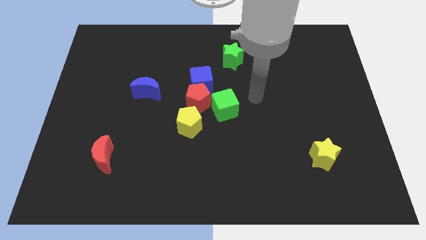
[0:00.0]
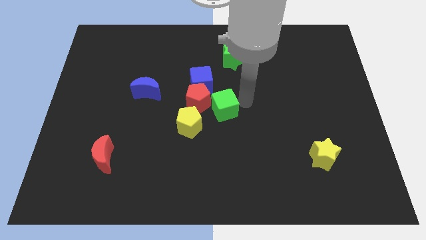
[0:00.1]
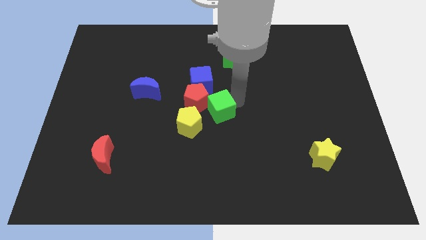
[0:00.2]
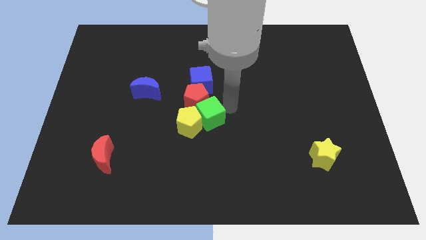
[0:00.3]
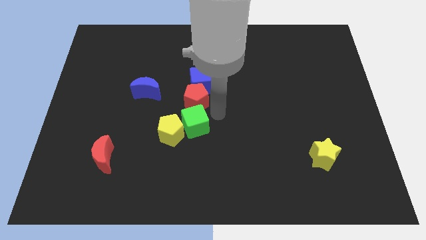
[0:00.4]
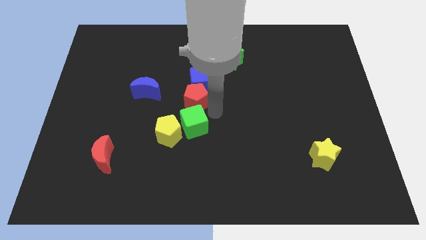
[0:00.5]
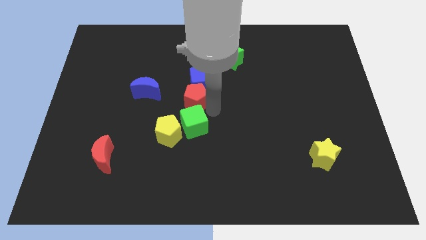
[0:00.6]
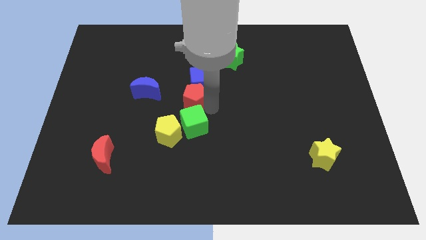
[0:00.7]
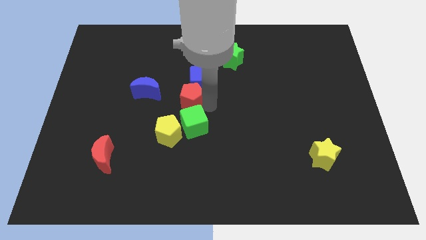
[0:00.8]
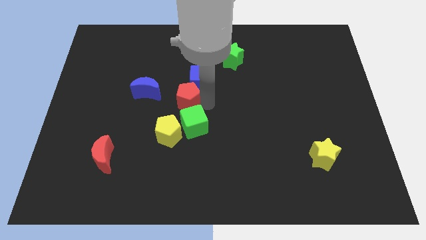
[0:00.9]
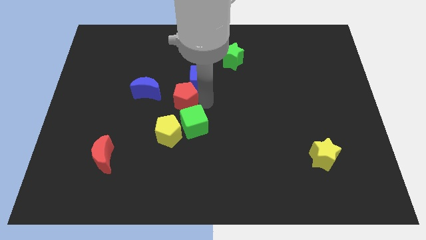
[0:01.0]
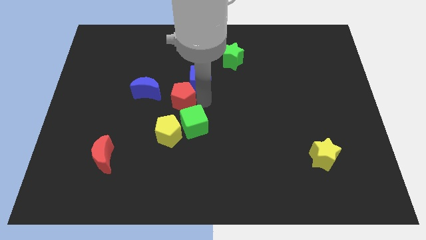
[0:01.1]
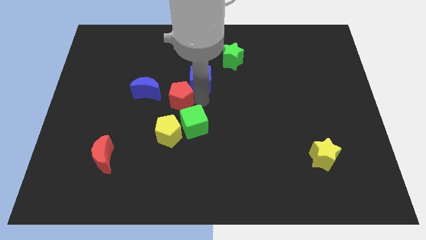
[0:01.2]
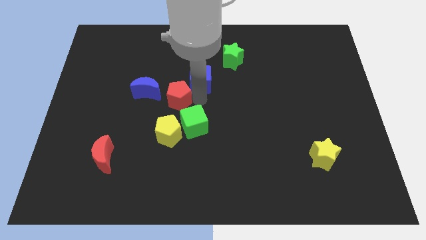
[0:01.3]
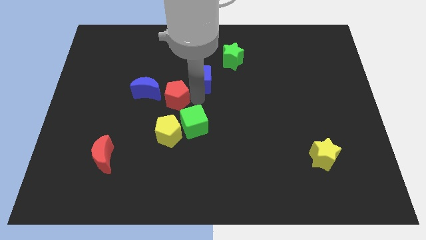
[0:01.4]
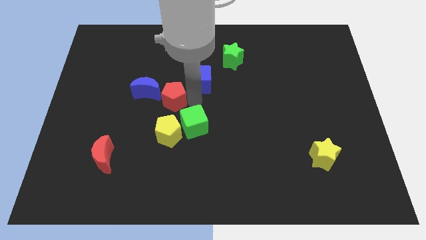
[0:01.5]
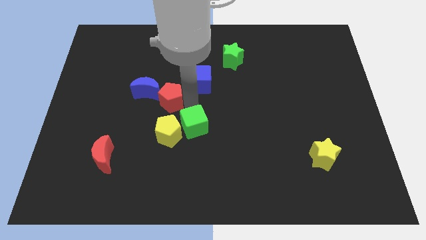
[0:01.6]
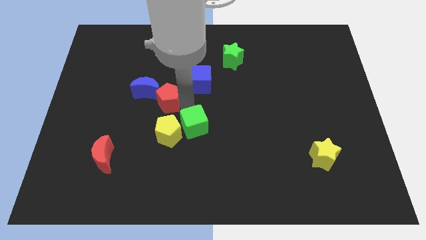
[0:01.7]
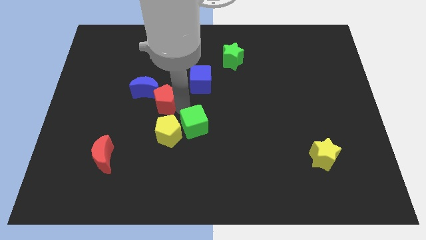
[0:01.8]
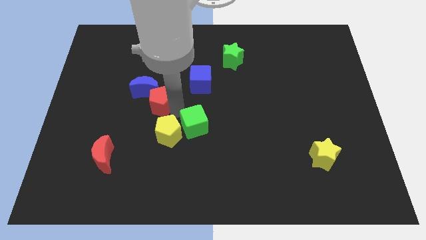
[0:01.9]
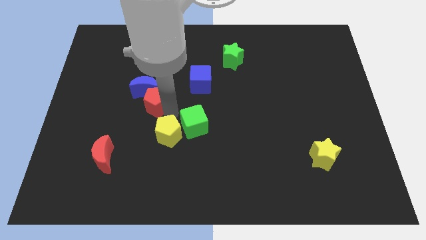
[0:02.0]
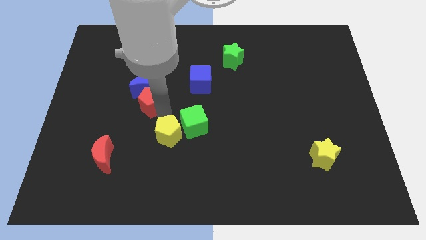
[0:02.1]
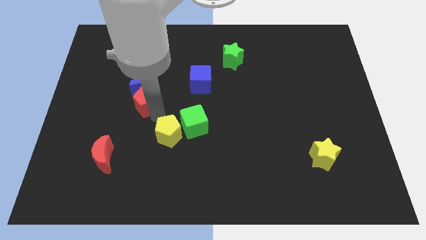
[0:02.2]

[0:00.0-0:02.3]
separate the red pentagon from the group of blocks

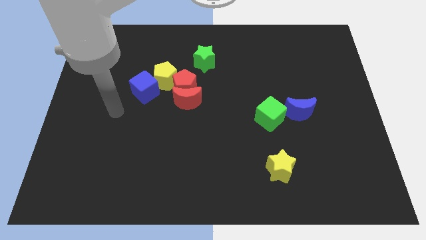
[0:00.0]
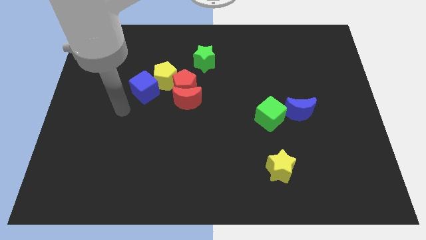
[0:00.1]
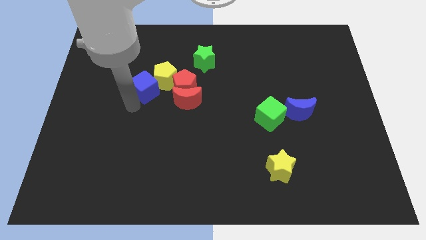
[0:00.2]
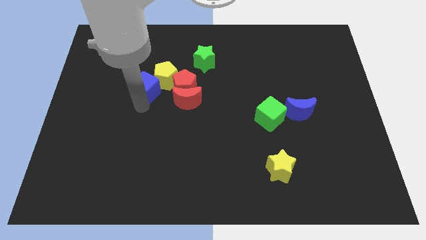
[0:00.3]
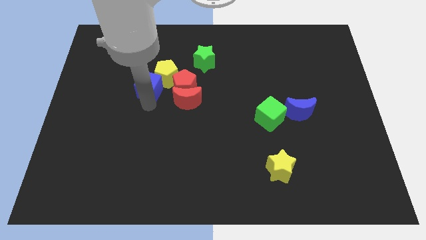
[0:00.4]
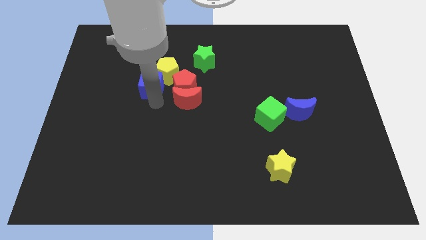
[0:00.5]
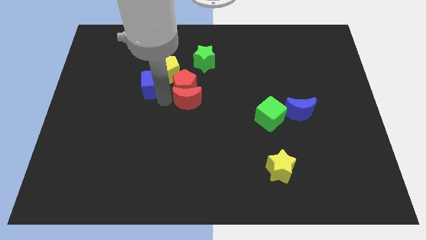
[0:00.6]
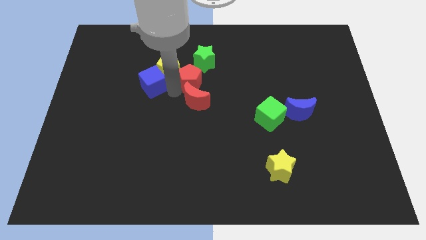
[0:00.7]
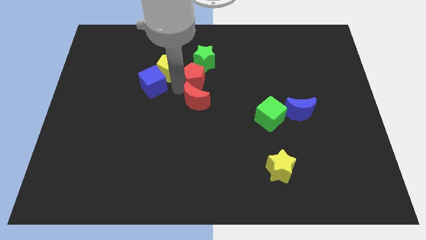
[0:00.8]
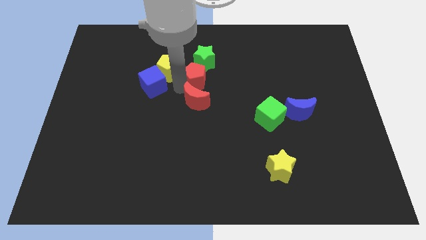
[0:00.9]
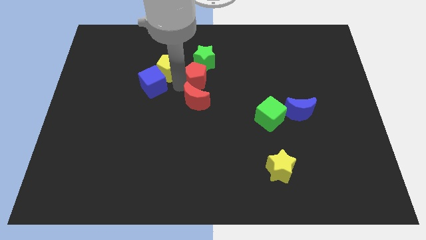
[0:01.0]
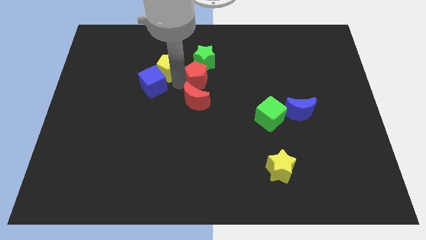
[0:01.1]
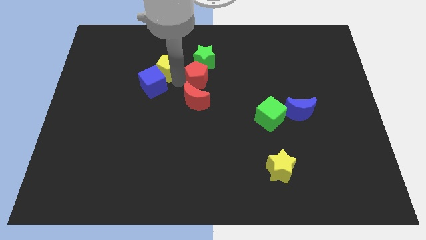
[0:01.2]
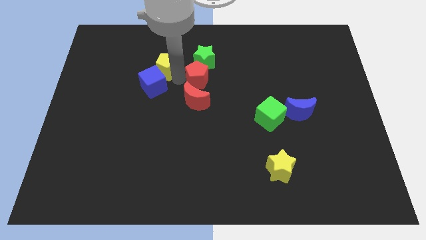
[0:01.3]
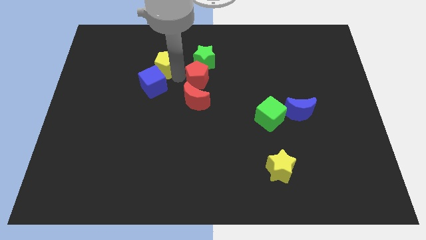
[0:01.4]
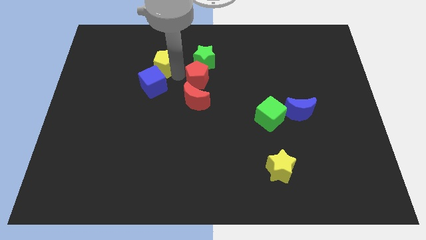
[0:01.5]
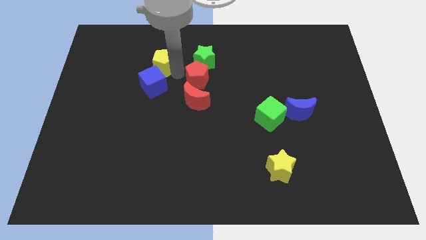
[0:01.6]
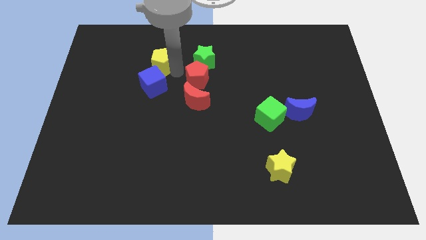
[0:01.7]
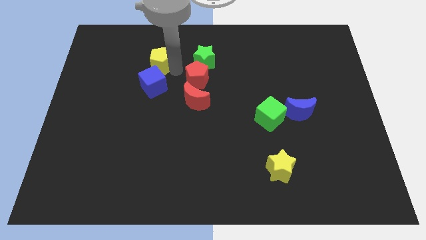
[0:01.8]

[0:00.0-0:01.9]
separate the yellow pentagon from the clump

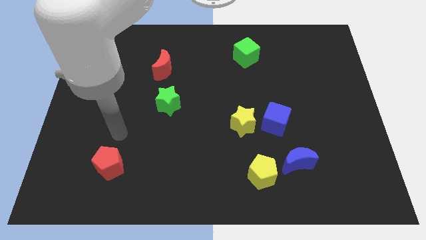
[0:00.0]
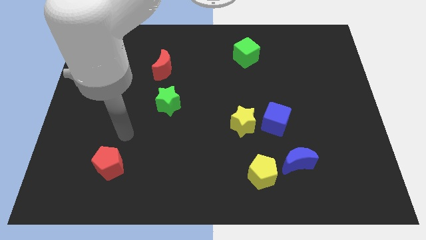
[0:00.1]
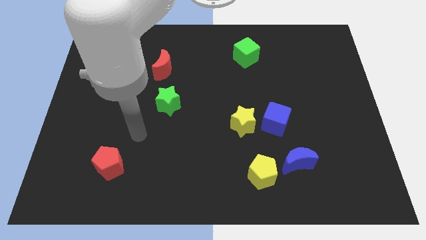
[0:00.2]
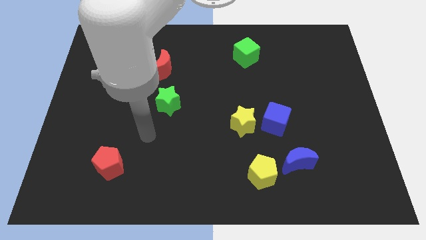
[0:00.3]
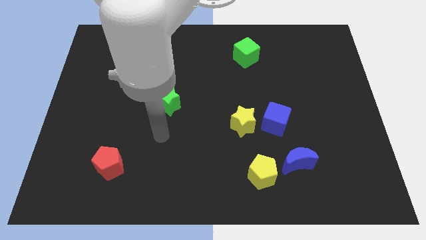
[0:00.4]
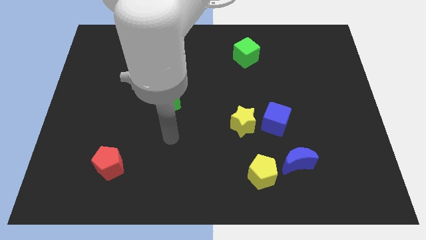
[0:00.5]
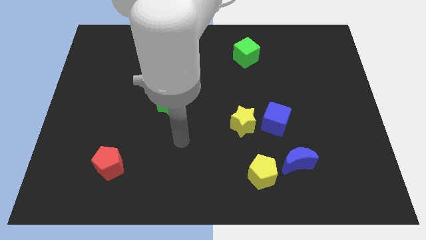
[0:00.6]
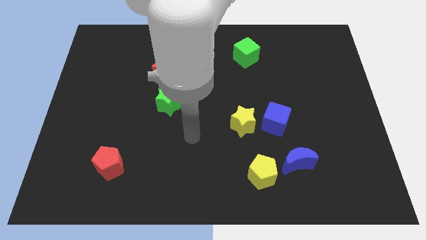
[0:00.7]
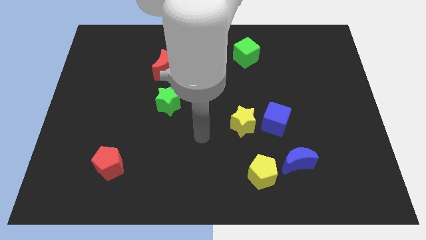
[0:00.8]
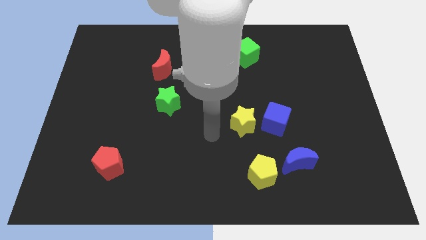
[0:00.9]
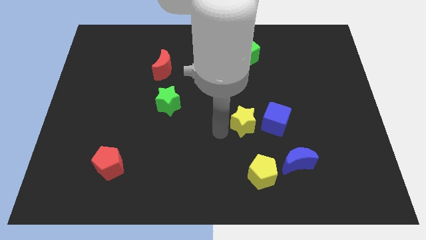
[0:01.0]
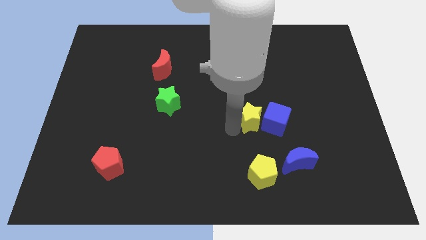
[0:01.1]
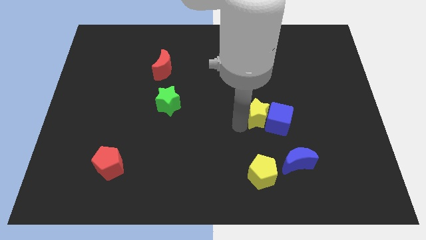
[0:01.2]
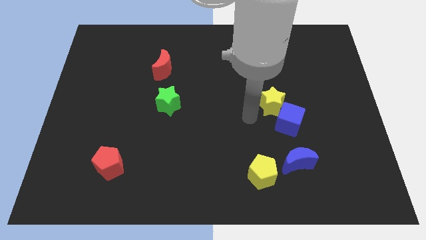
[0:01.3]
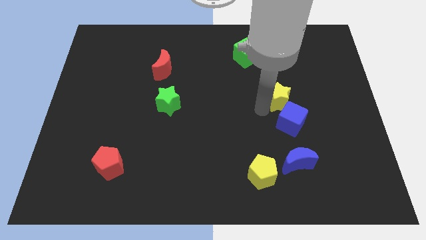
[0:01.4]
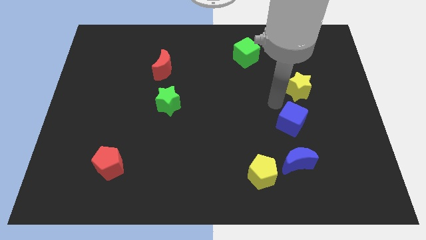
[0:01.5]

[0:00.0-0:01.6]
move the blue cube away from the yellow star

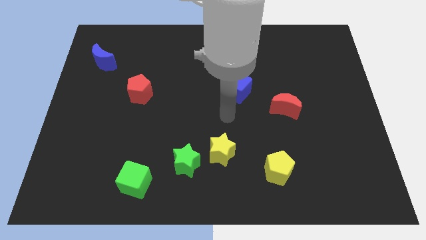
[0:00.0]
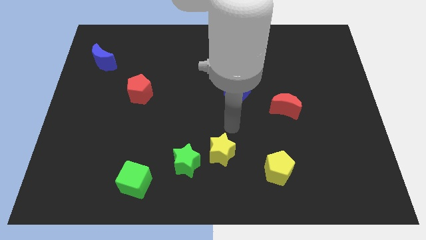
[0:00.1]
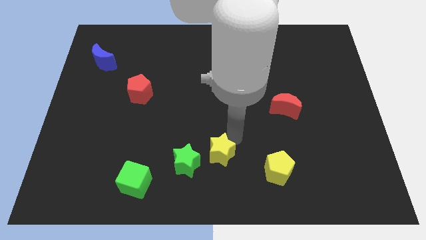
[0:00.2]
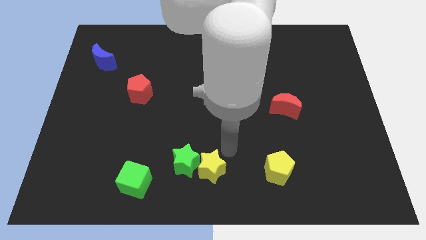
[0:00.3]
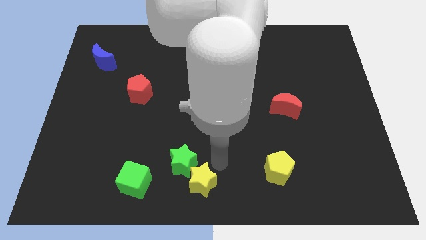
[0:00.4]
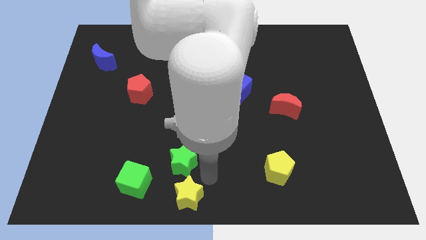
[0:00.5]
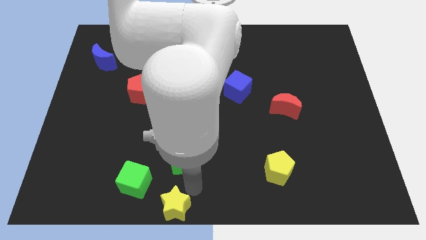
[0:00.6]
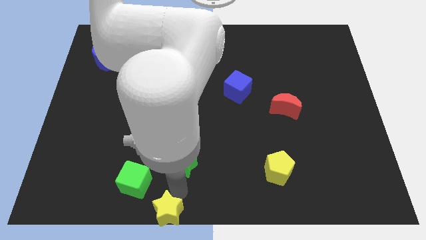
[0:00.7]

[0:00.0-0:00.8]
move the green star away from the yellow star

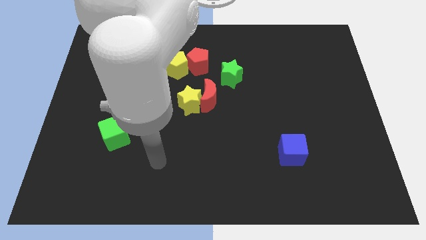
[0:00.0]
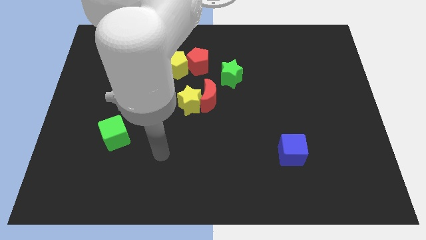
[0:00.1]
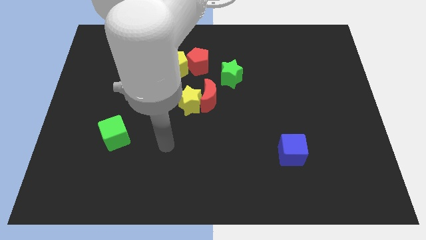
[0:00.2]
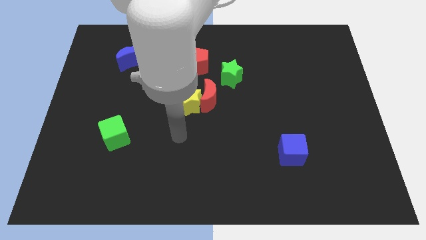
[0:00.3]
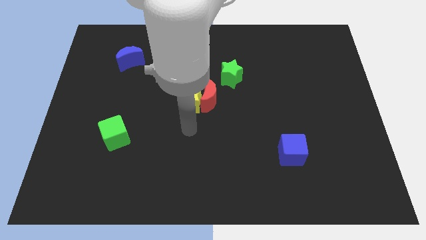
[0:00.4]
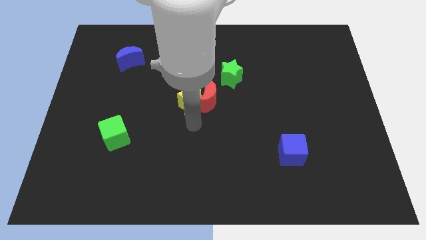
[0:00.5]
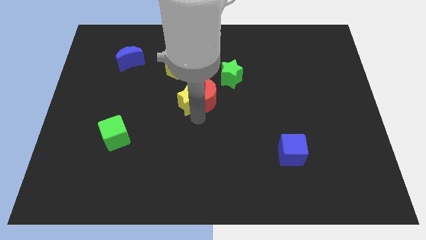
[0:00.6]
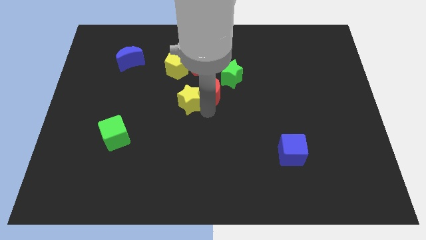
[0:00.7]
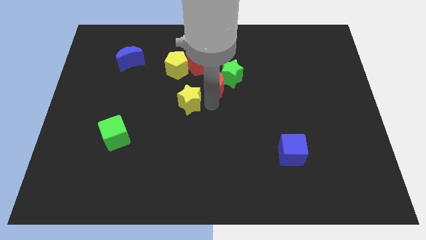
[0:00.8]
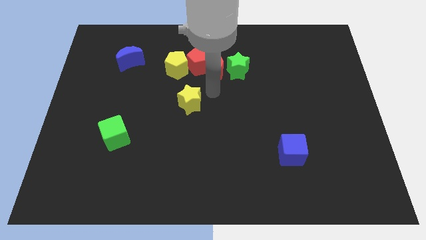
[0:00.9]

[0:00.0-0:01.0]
move the yellow star away from the red moon

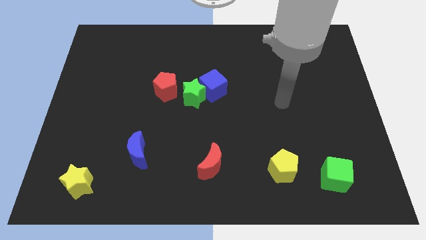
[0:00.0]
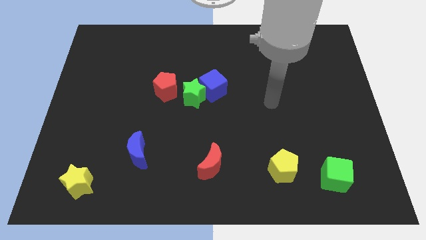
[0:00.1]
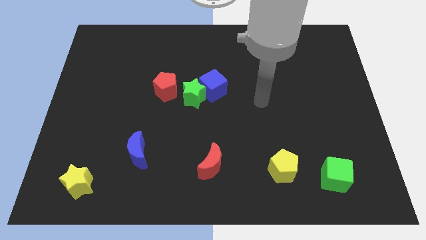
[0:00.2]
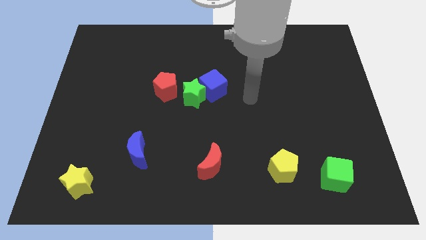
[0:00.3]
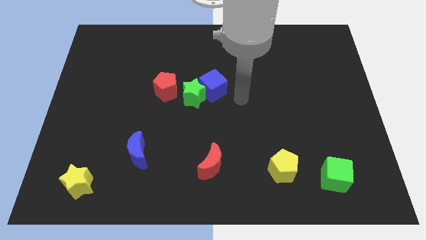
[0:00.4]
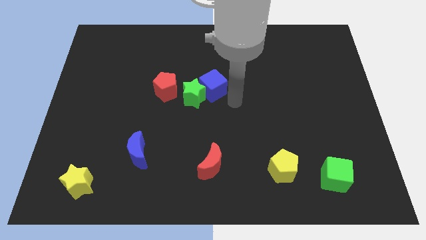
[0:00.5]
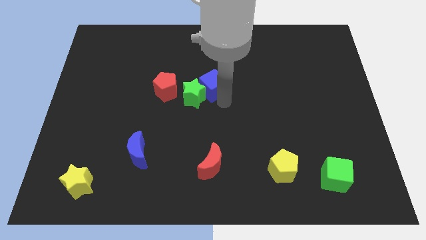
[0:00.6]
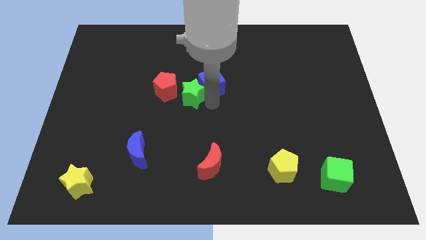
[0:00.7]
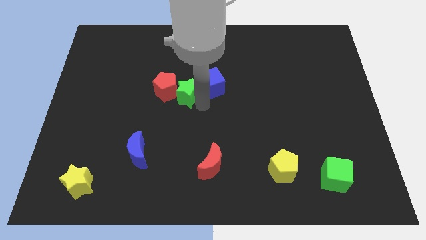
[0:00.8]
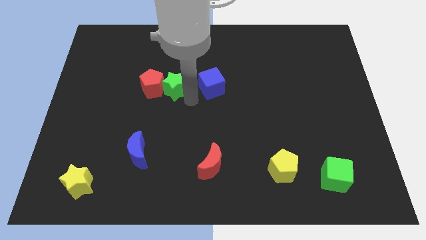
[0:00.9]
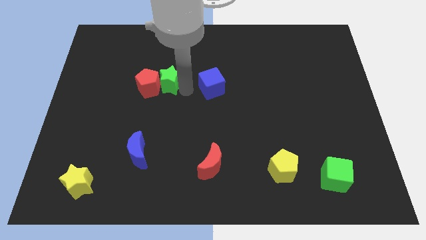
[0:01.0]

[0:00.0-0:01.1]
move the blue cube away from the green star

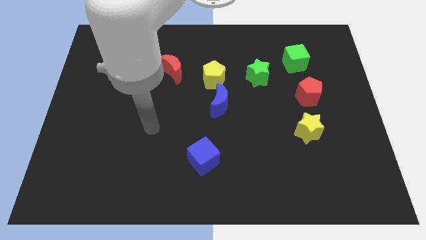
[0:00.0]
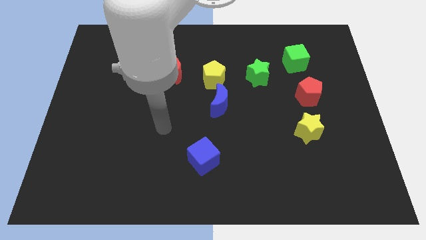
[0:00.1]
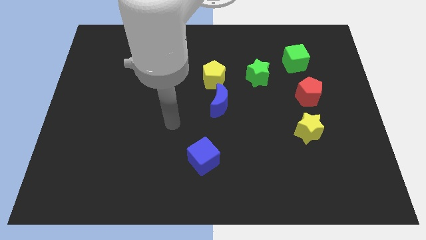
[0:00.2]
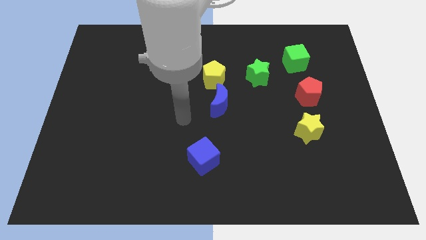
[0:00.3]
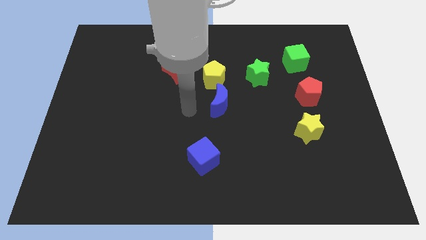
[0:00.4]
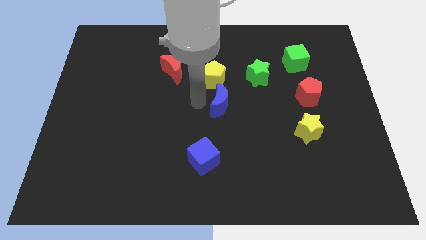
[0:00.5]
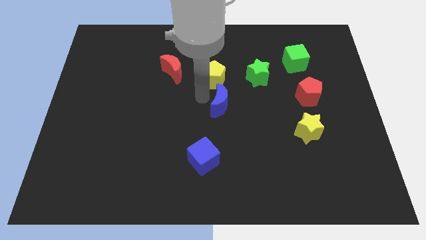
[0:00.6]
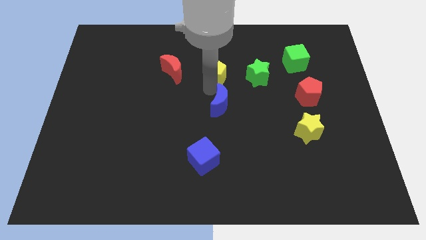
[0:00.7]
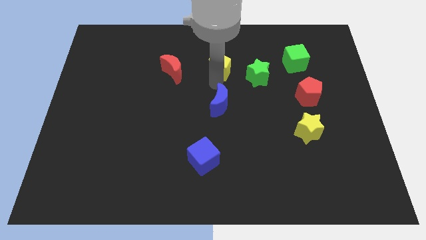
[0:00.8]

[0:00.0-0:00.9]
move the blue moon away from the yellow pentagon
